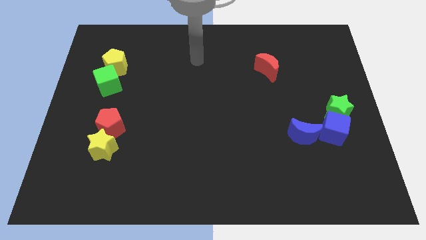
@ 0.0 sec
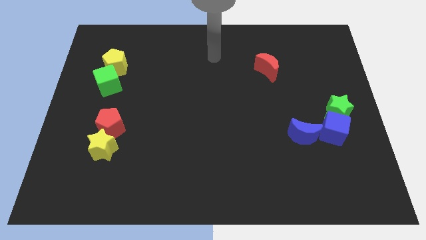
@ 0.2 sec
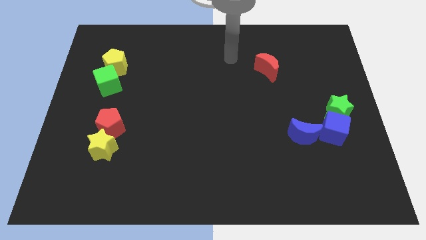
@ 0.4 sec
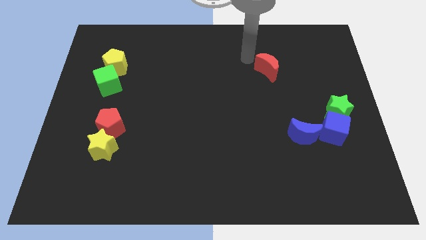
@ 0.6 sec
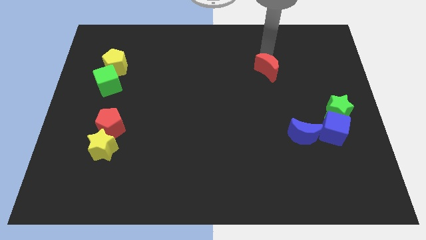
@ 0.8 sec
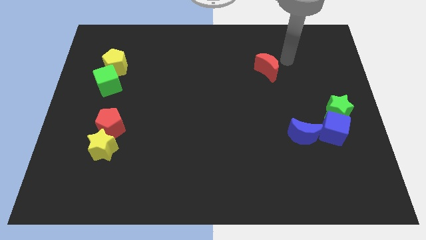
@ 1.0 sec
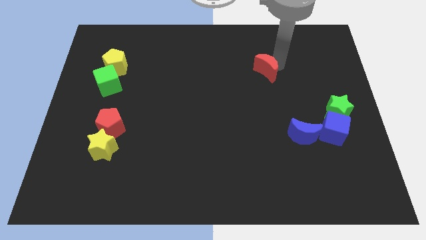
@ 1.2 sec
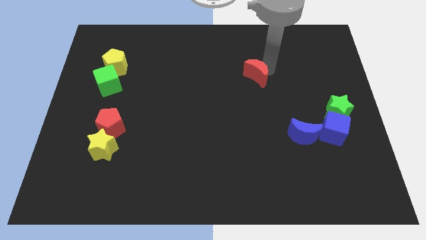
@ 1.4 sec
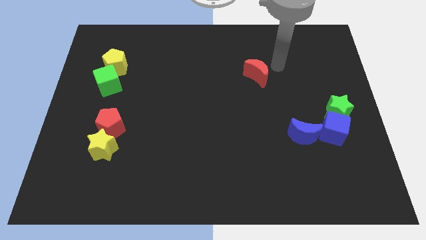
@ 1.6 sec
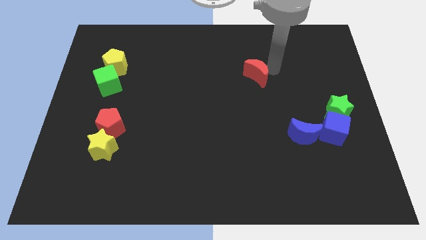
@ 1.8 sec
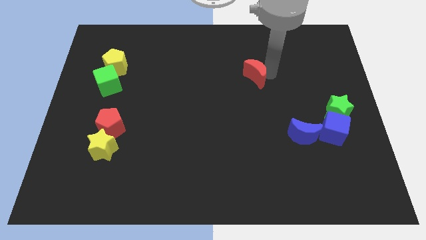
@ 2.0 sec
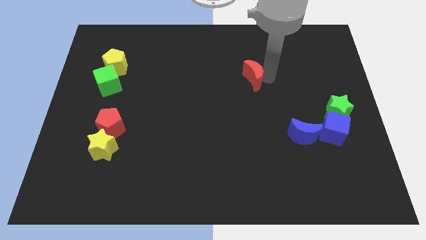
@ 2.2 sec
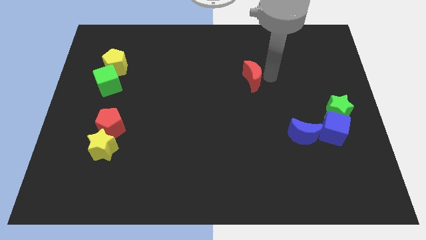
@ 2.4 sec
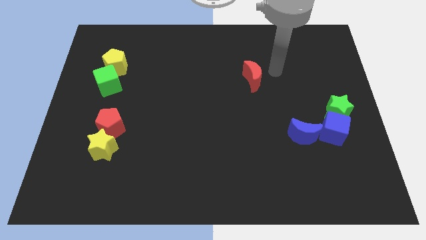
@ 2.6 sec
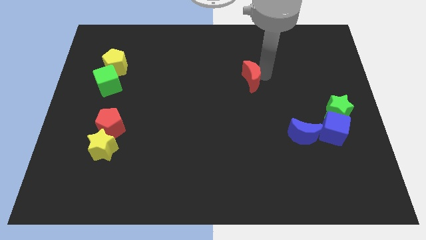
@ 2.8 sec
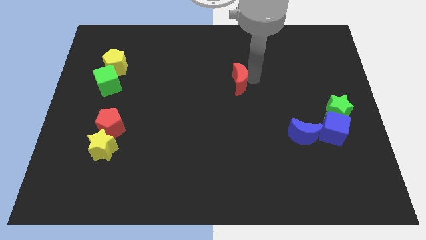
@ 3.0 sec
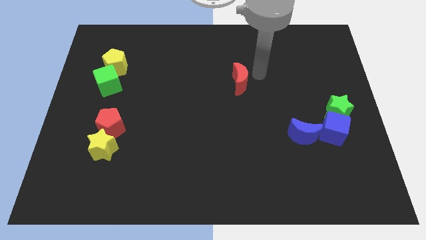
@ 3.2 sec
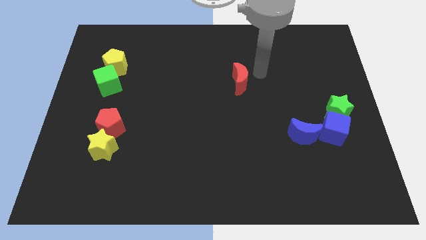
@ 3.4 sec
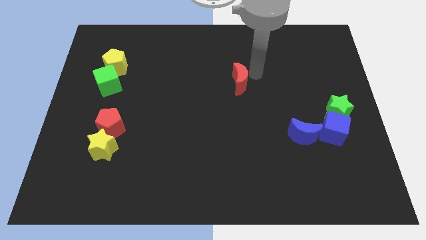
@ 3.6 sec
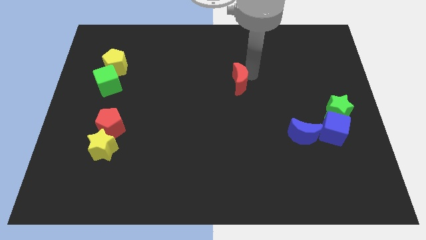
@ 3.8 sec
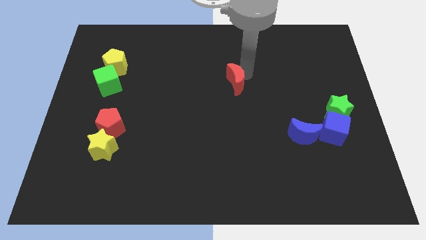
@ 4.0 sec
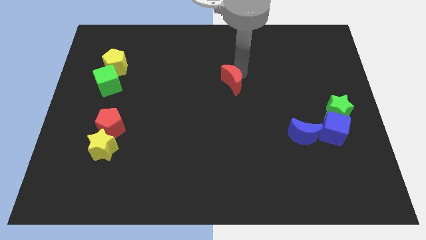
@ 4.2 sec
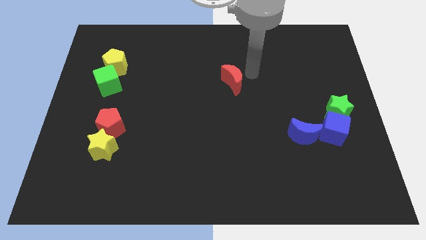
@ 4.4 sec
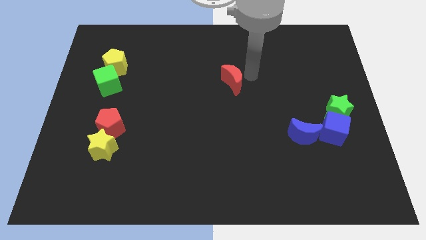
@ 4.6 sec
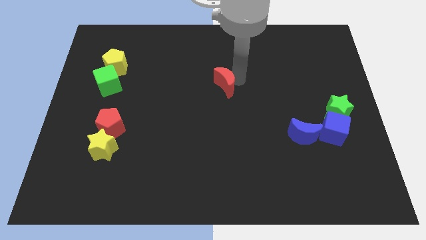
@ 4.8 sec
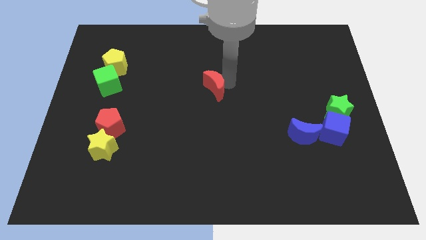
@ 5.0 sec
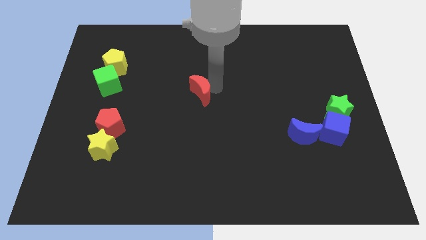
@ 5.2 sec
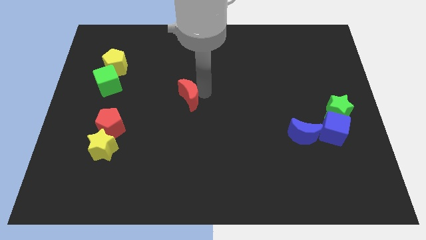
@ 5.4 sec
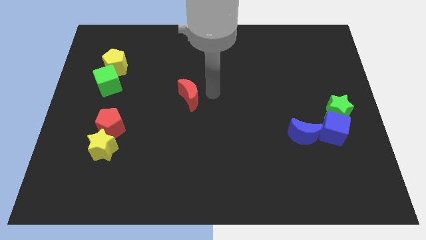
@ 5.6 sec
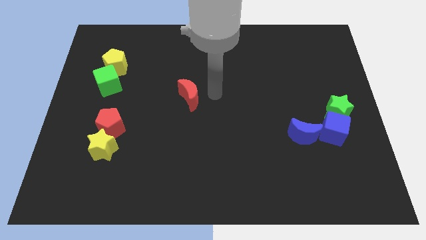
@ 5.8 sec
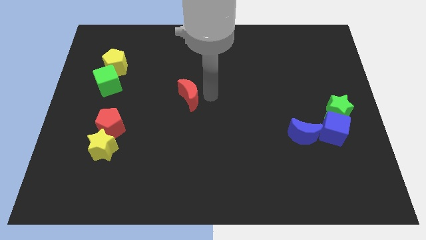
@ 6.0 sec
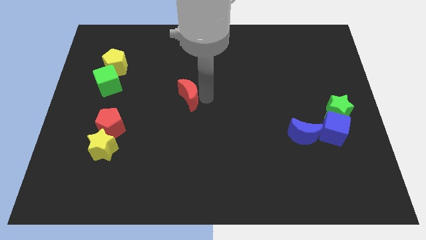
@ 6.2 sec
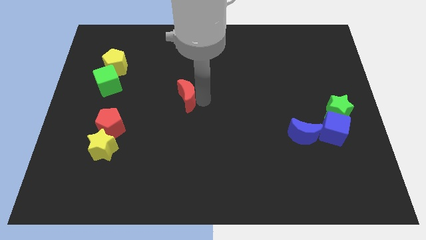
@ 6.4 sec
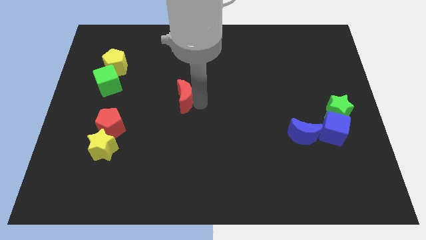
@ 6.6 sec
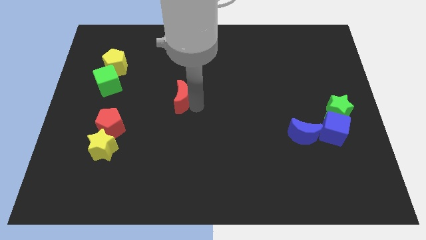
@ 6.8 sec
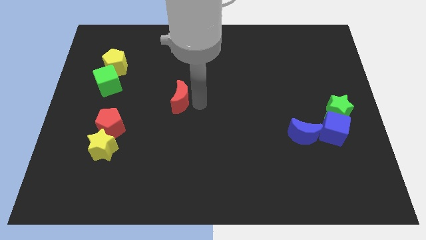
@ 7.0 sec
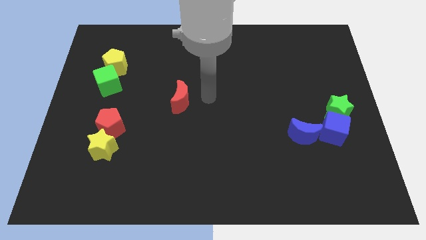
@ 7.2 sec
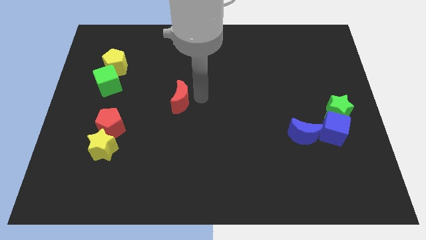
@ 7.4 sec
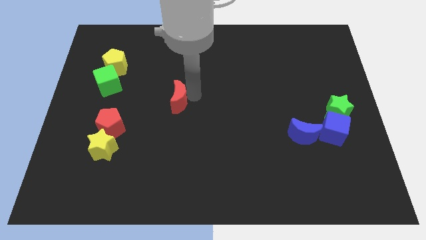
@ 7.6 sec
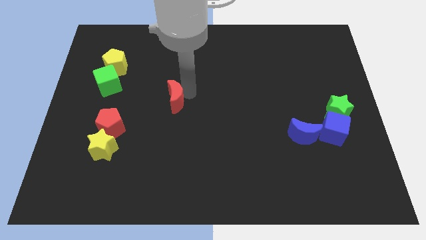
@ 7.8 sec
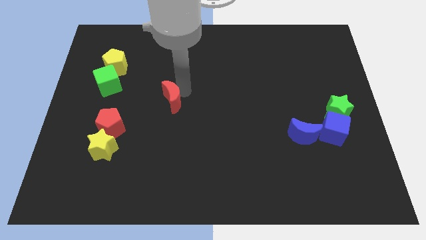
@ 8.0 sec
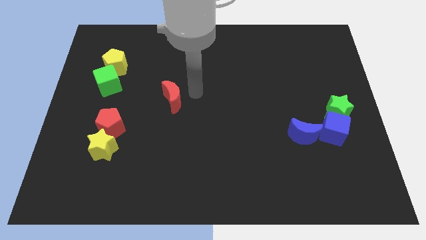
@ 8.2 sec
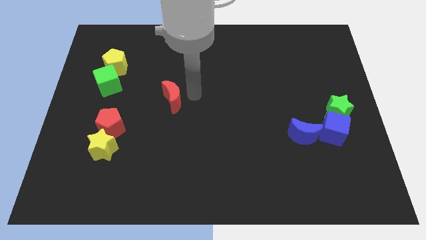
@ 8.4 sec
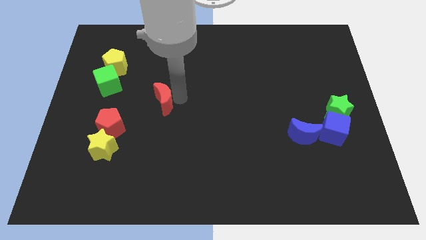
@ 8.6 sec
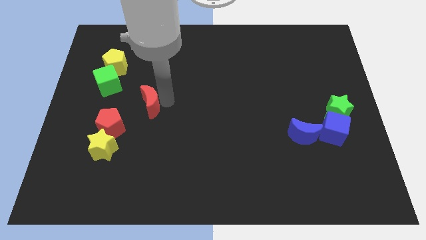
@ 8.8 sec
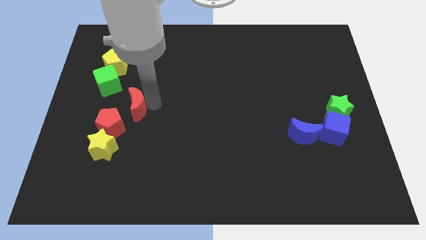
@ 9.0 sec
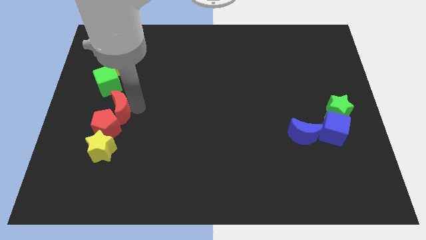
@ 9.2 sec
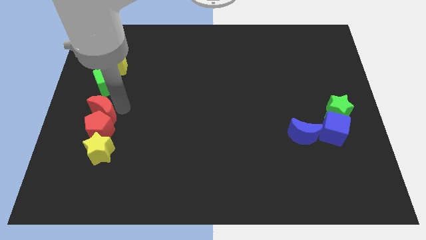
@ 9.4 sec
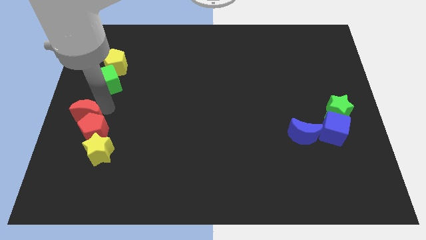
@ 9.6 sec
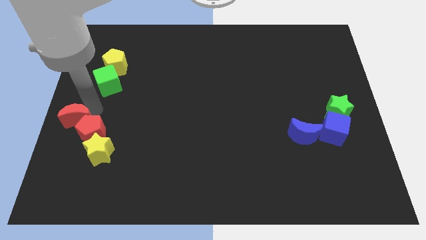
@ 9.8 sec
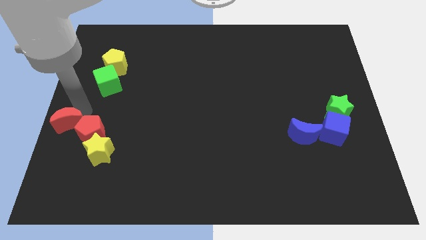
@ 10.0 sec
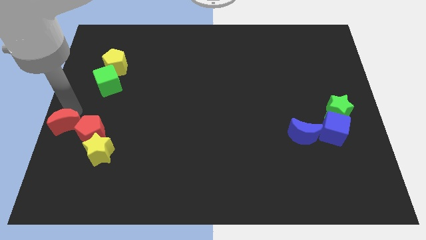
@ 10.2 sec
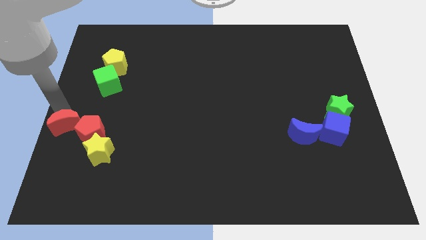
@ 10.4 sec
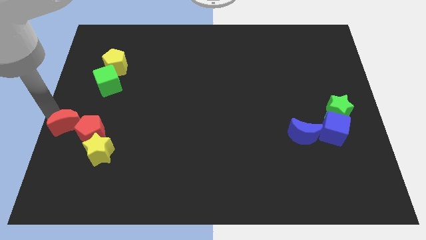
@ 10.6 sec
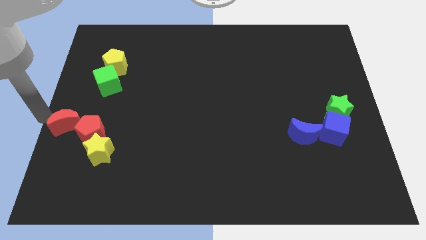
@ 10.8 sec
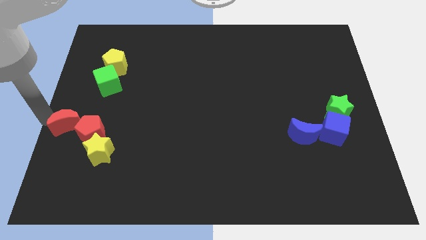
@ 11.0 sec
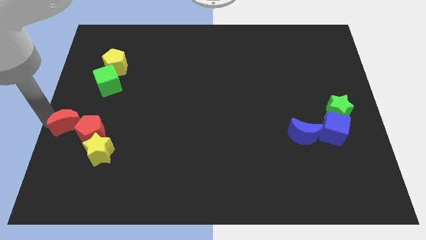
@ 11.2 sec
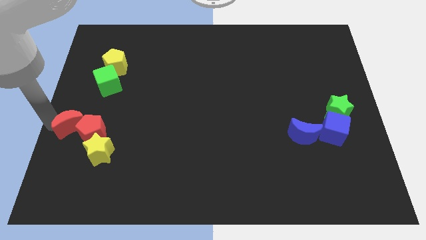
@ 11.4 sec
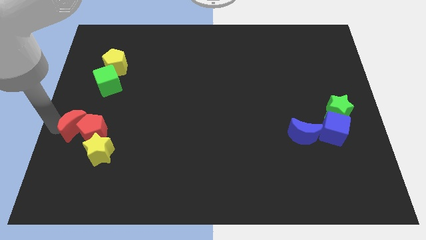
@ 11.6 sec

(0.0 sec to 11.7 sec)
put the red moon to the bottom left side of the red pentagon

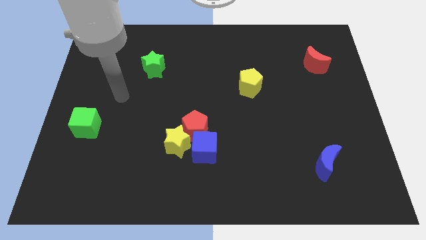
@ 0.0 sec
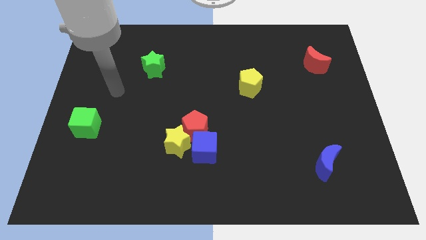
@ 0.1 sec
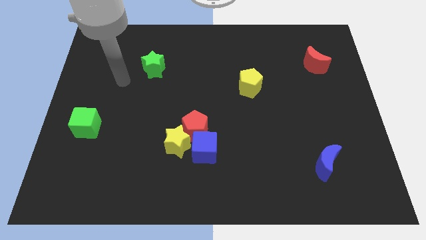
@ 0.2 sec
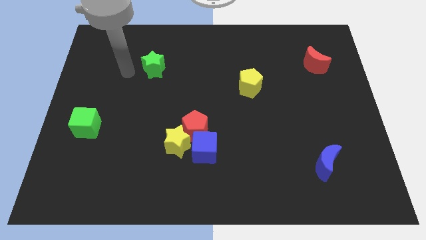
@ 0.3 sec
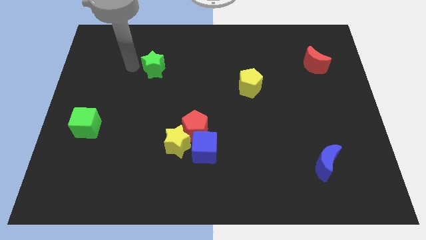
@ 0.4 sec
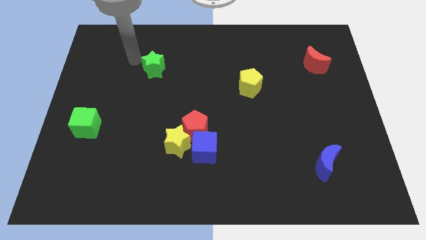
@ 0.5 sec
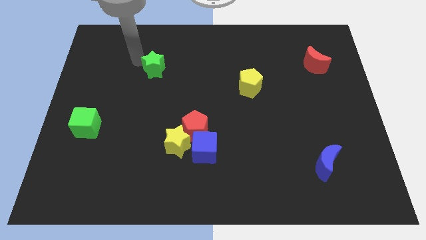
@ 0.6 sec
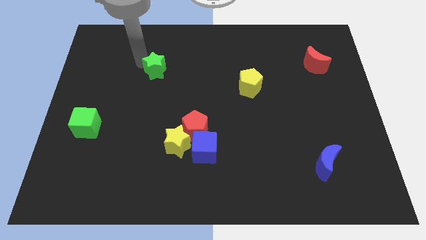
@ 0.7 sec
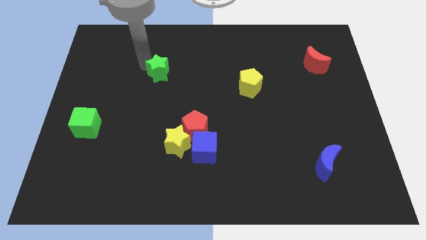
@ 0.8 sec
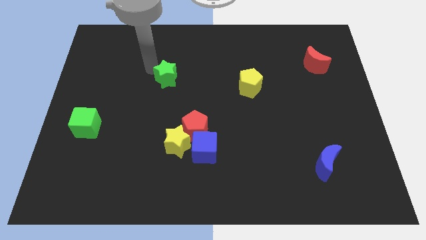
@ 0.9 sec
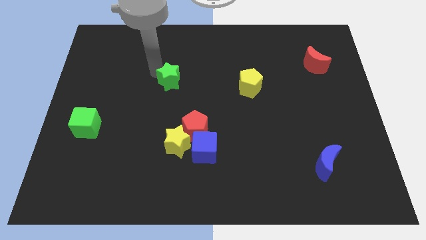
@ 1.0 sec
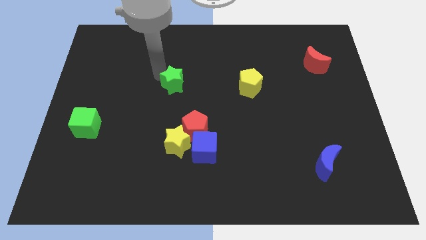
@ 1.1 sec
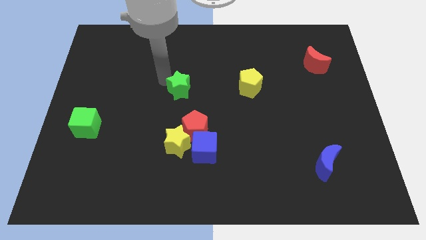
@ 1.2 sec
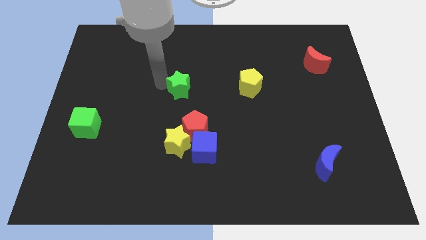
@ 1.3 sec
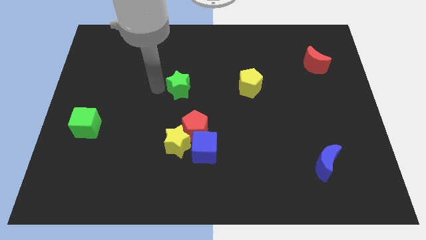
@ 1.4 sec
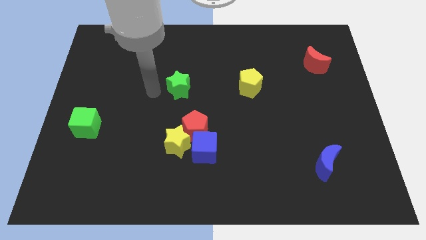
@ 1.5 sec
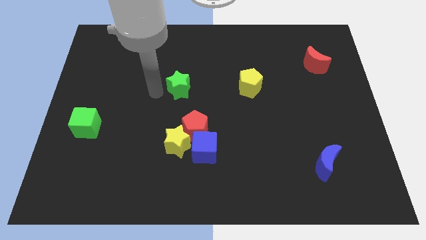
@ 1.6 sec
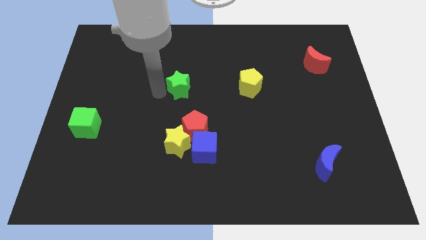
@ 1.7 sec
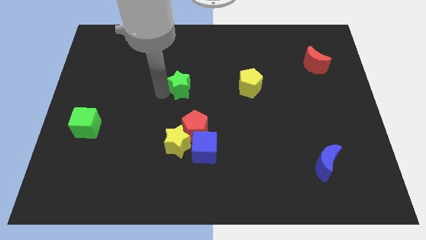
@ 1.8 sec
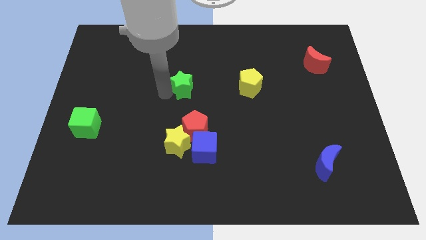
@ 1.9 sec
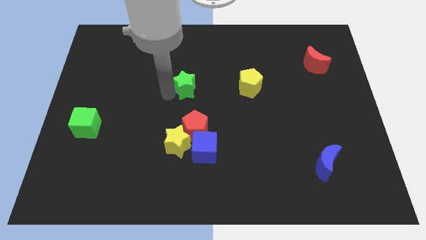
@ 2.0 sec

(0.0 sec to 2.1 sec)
push the green star to the left of the yellow pentagon
